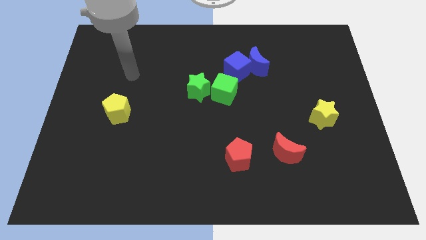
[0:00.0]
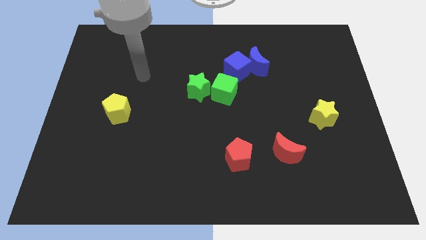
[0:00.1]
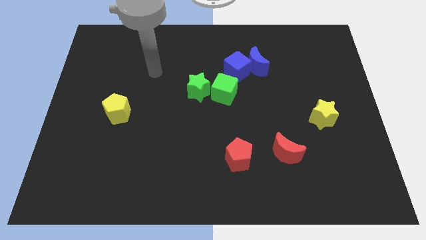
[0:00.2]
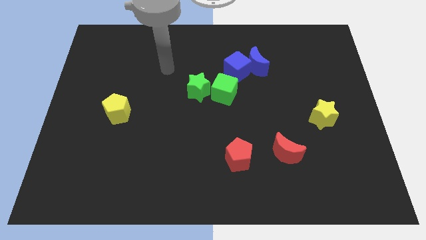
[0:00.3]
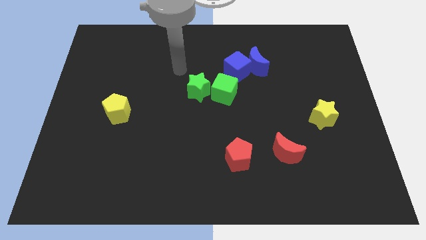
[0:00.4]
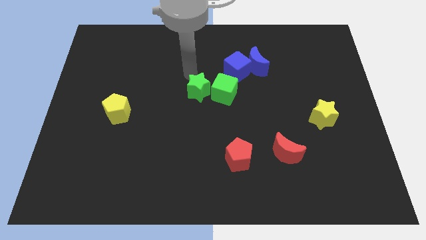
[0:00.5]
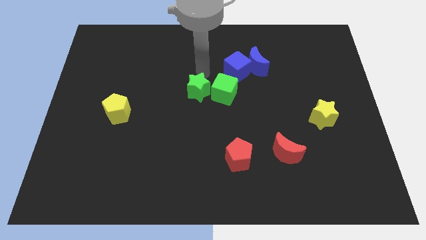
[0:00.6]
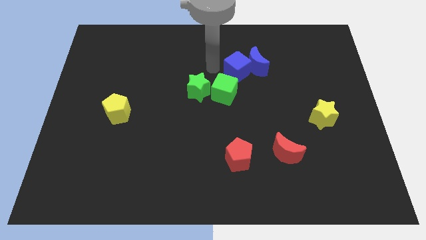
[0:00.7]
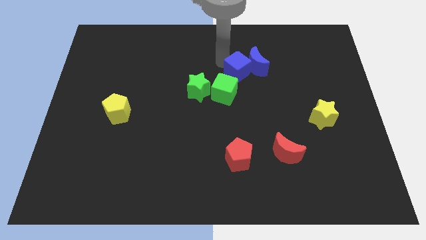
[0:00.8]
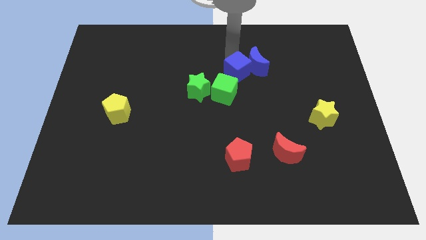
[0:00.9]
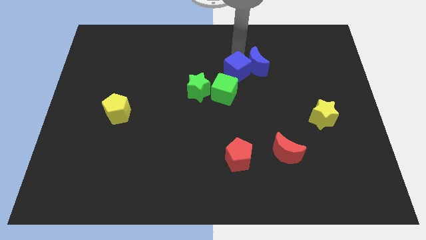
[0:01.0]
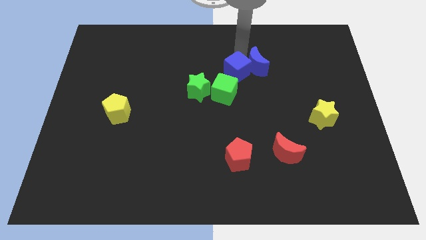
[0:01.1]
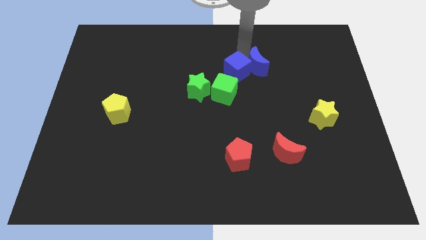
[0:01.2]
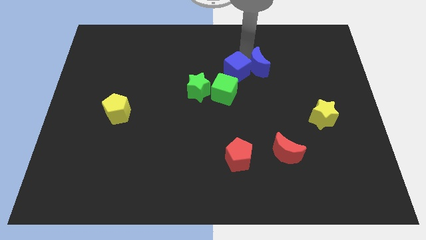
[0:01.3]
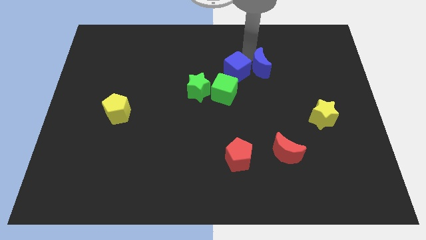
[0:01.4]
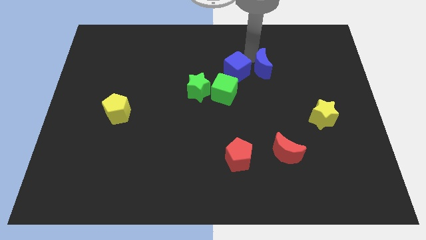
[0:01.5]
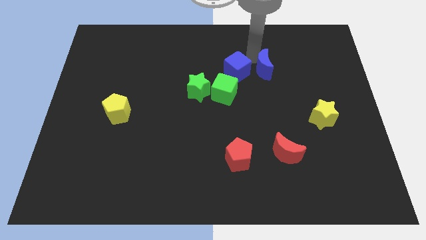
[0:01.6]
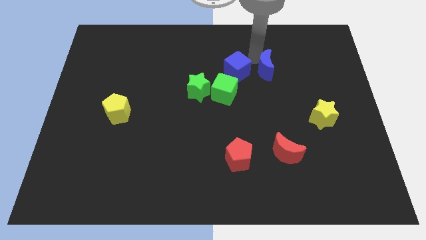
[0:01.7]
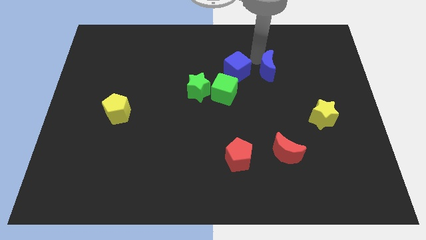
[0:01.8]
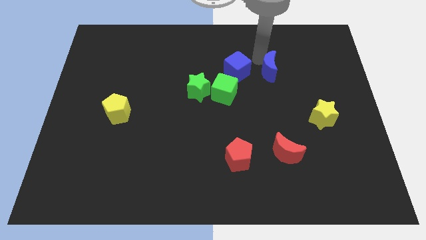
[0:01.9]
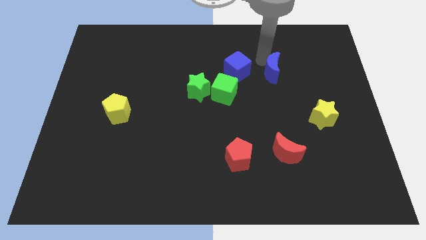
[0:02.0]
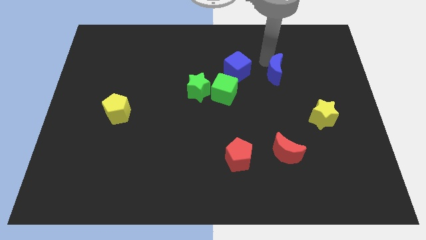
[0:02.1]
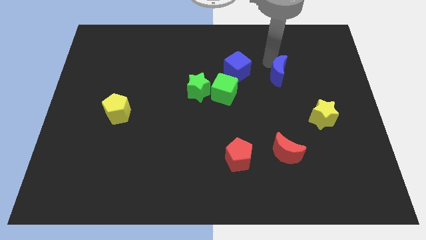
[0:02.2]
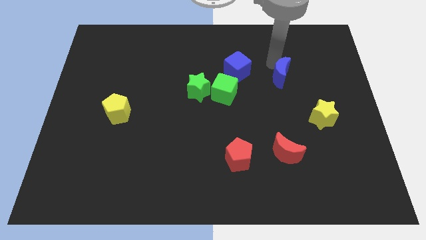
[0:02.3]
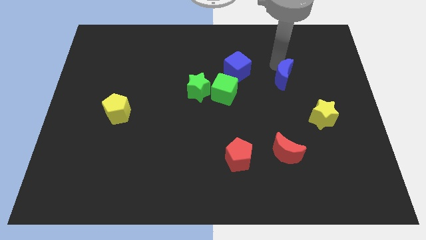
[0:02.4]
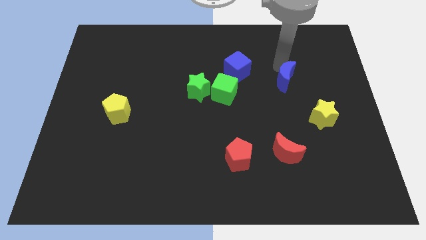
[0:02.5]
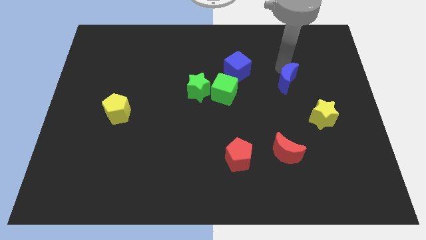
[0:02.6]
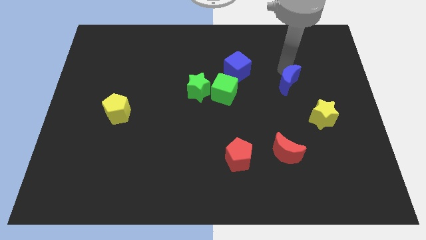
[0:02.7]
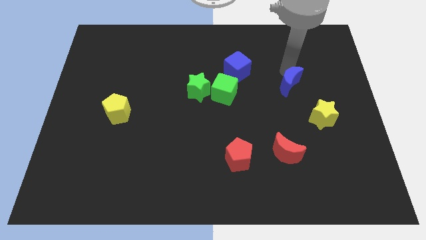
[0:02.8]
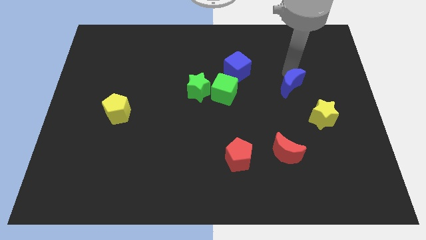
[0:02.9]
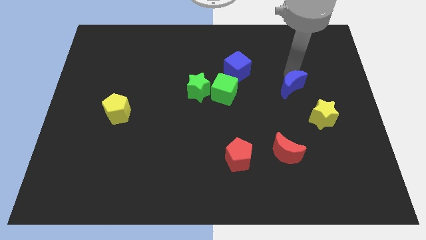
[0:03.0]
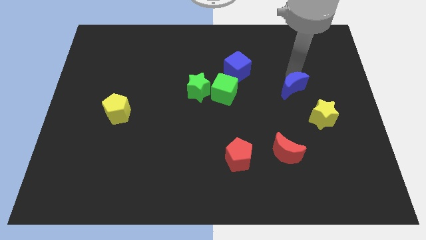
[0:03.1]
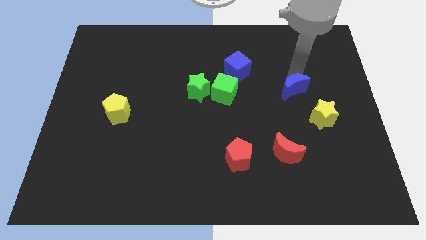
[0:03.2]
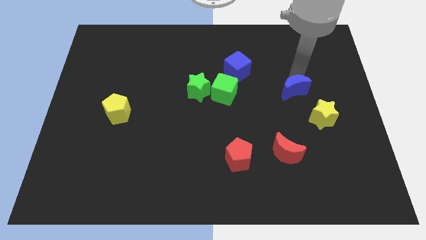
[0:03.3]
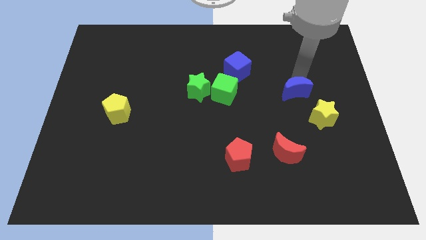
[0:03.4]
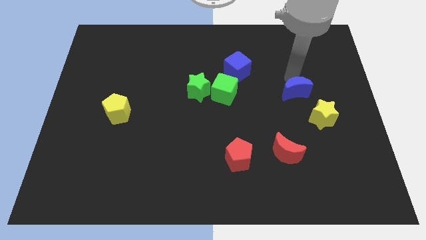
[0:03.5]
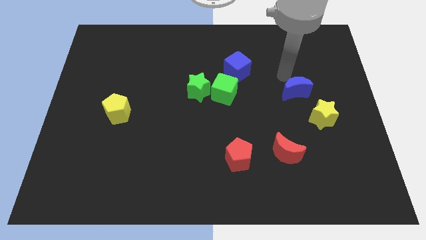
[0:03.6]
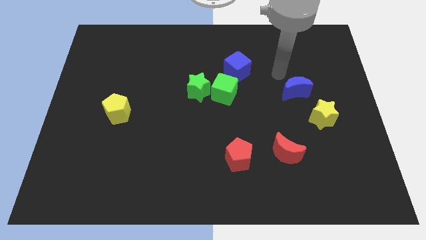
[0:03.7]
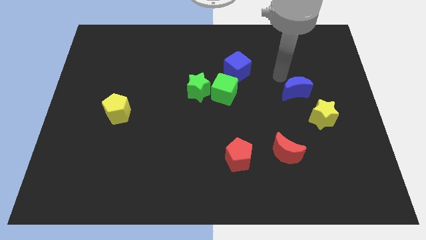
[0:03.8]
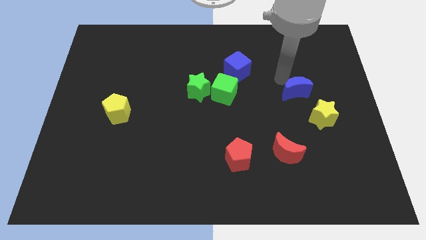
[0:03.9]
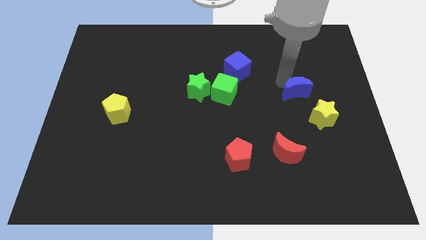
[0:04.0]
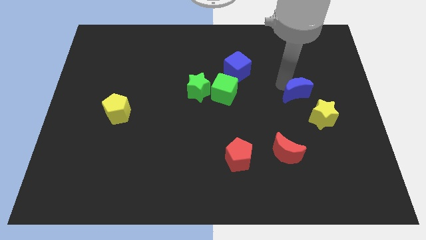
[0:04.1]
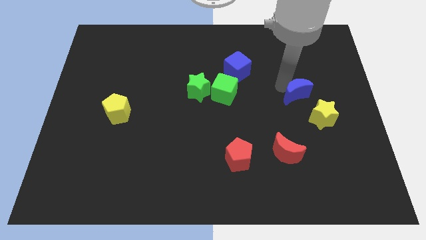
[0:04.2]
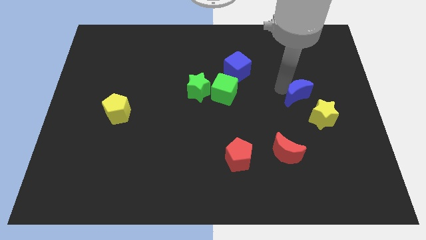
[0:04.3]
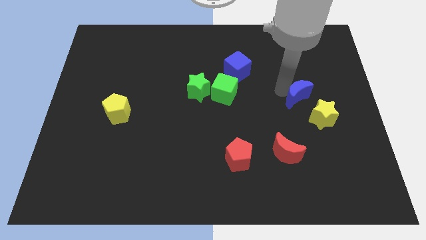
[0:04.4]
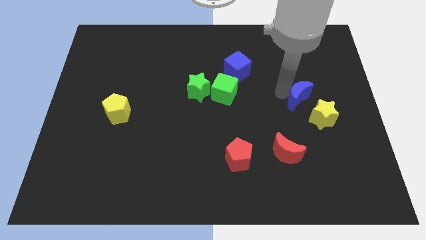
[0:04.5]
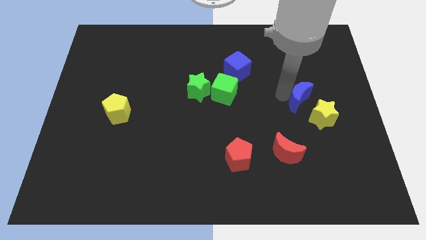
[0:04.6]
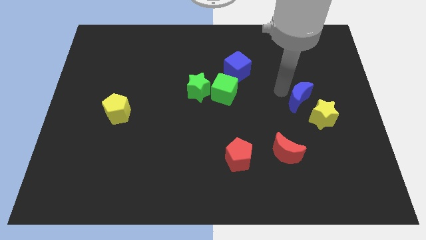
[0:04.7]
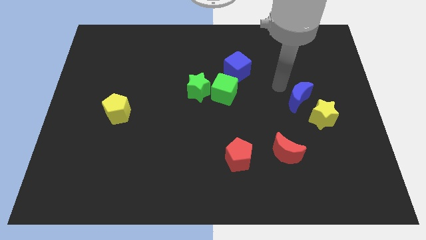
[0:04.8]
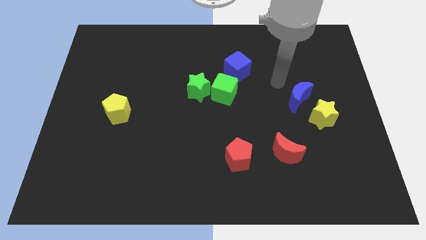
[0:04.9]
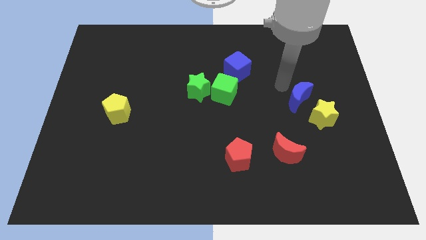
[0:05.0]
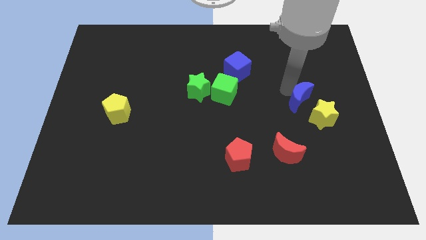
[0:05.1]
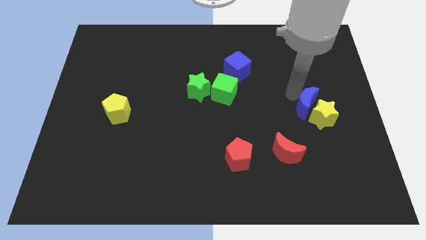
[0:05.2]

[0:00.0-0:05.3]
put the blue moon towards the yellow star

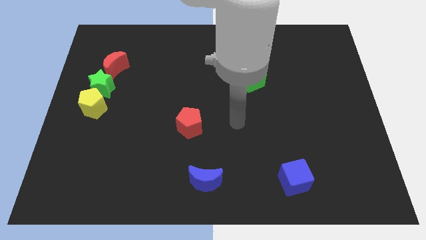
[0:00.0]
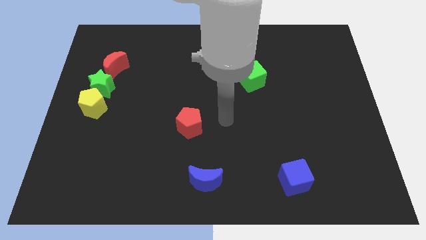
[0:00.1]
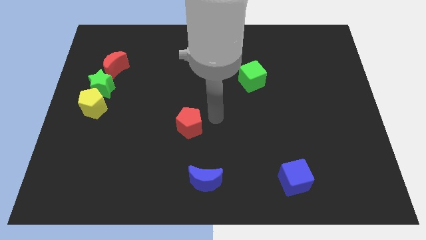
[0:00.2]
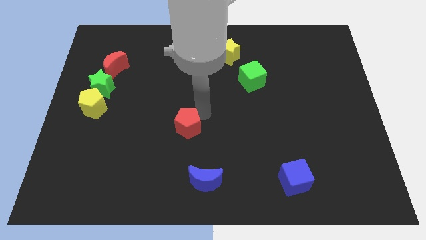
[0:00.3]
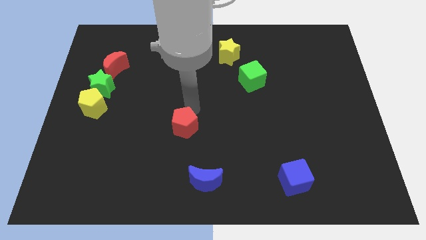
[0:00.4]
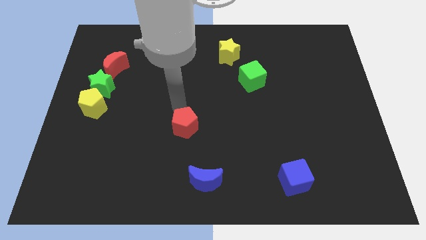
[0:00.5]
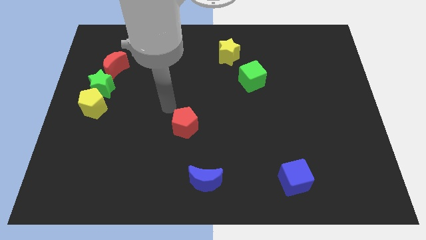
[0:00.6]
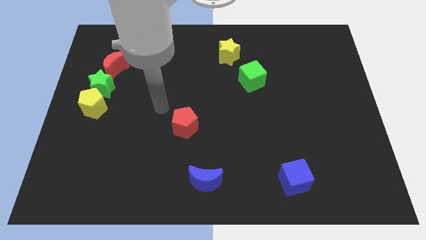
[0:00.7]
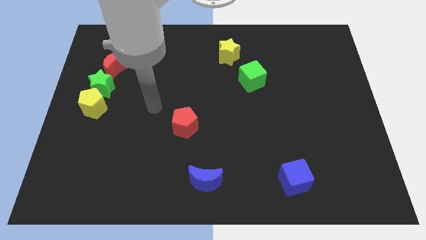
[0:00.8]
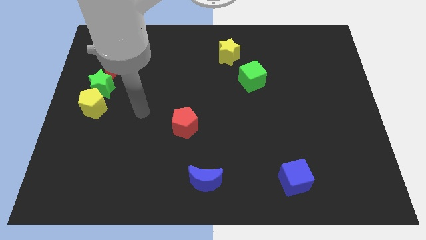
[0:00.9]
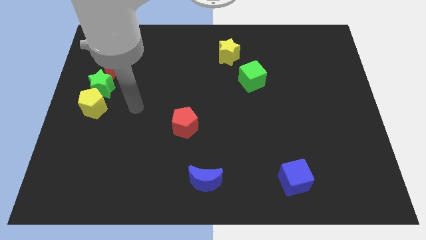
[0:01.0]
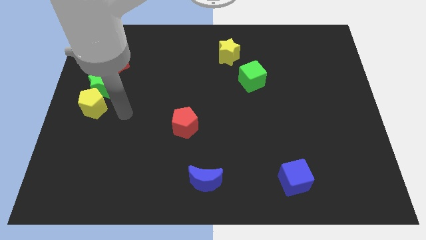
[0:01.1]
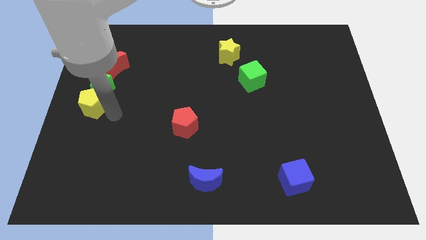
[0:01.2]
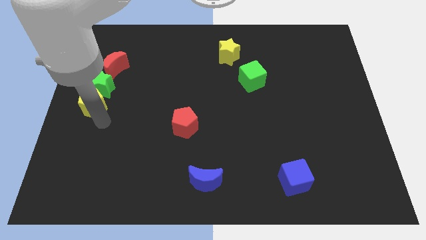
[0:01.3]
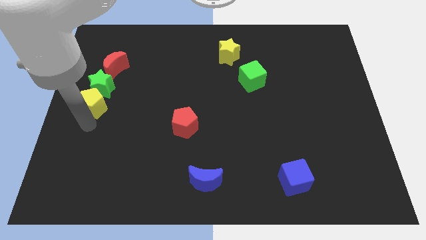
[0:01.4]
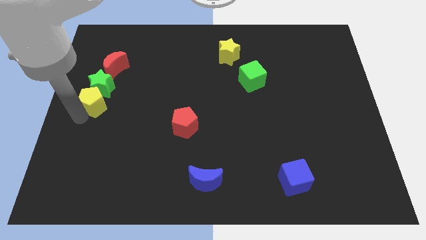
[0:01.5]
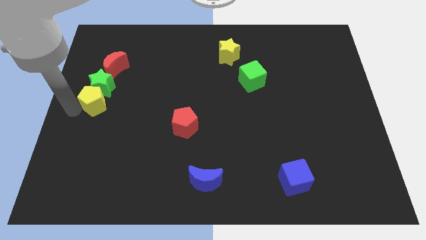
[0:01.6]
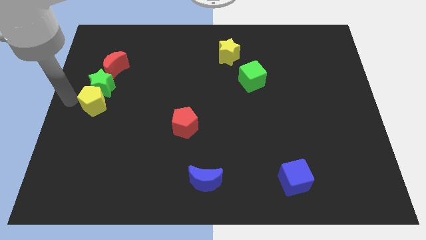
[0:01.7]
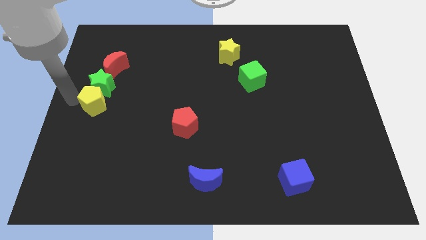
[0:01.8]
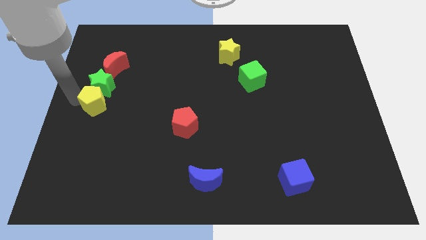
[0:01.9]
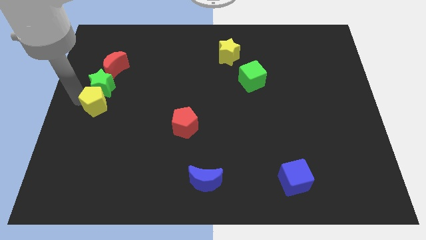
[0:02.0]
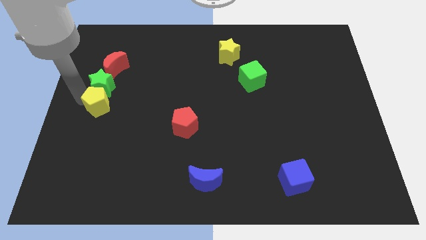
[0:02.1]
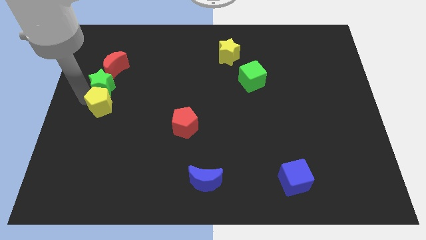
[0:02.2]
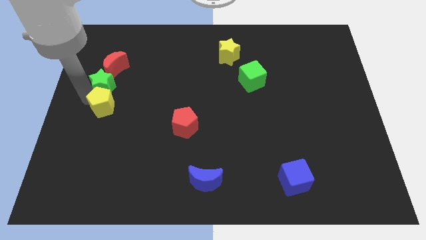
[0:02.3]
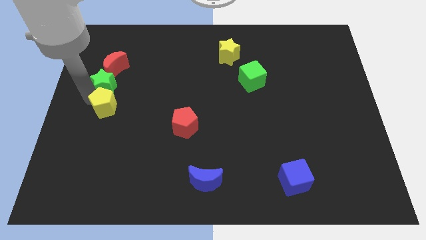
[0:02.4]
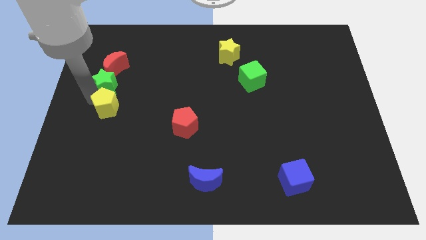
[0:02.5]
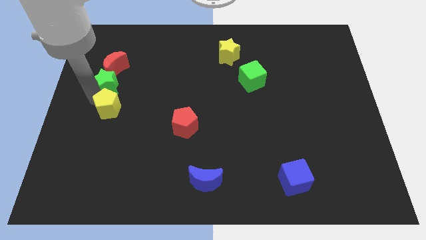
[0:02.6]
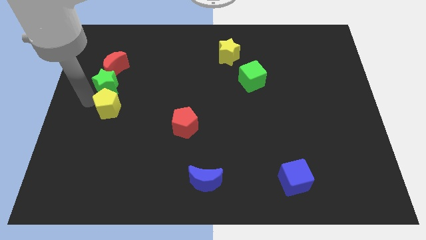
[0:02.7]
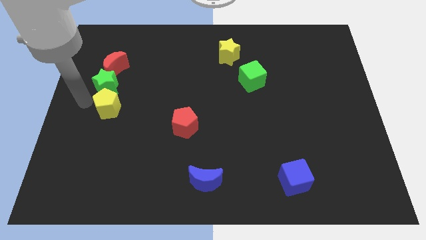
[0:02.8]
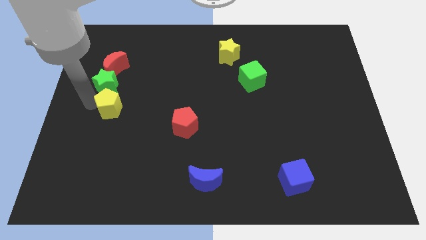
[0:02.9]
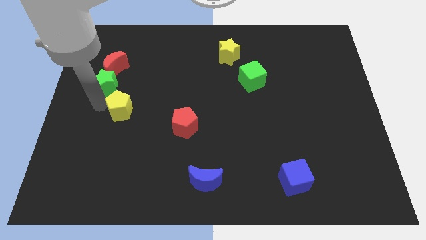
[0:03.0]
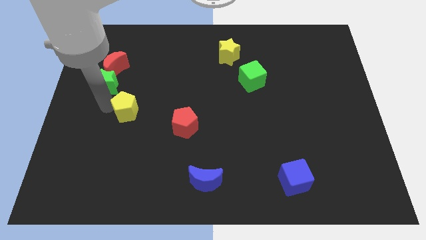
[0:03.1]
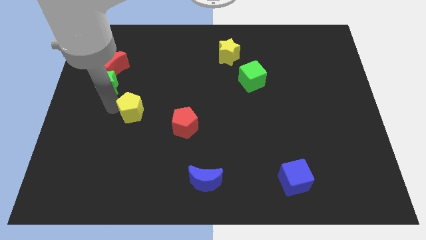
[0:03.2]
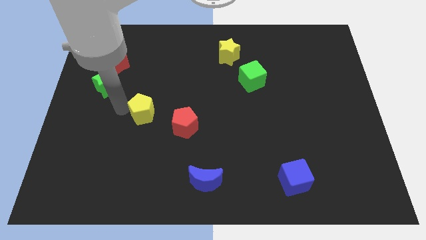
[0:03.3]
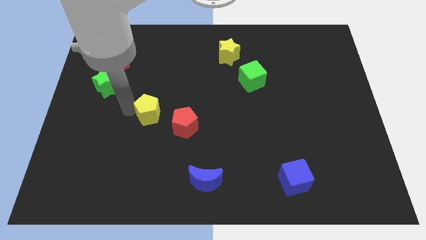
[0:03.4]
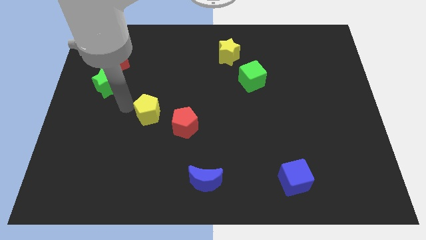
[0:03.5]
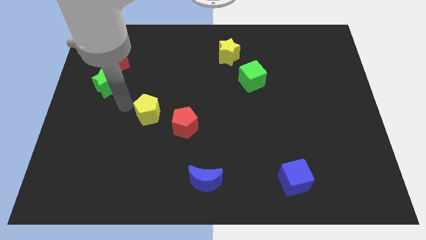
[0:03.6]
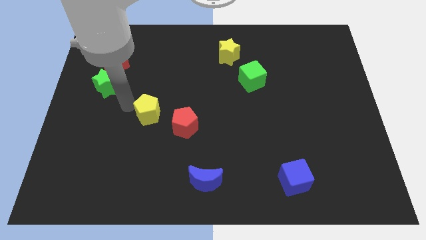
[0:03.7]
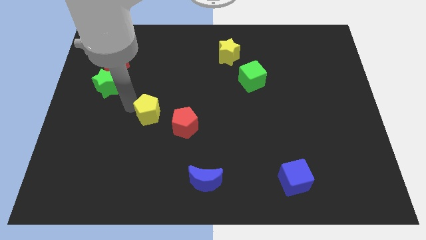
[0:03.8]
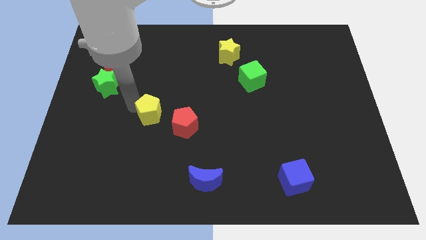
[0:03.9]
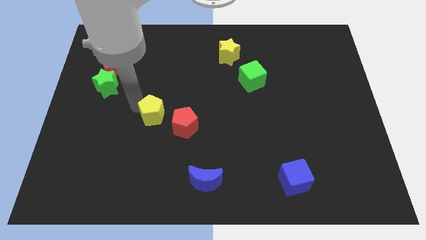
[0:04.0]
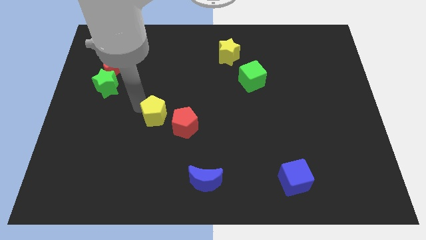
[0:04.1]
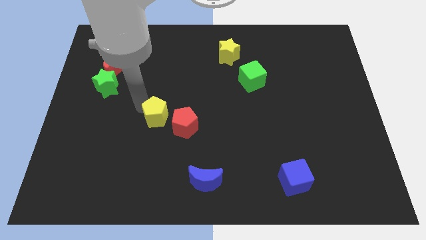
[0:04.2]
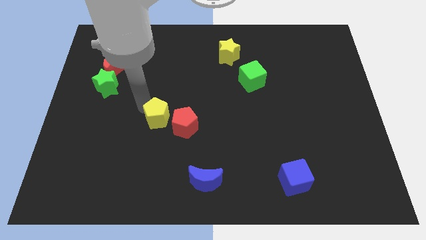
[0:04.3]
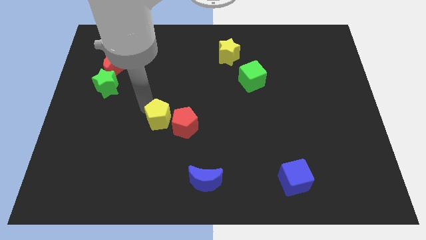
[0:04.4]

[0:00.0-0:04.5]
move the yellow pentagon next to the red pentagon
